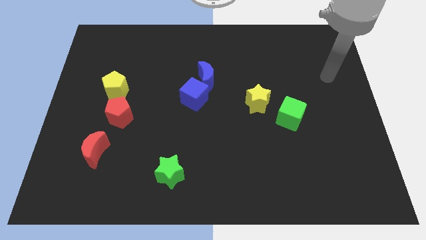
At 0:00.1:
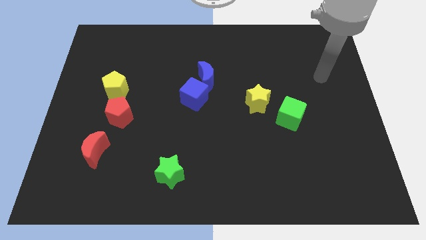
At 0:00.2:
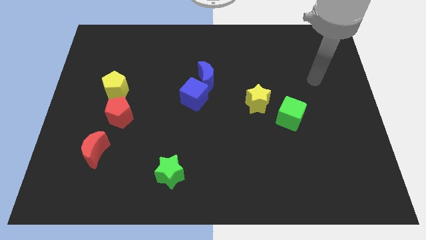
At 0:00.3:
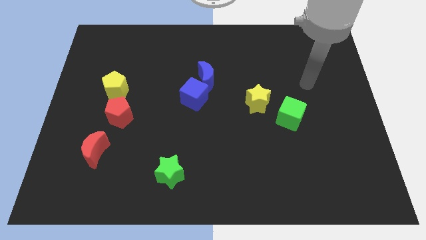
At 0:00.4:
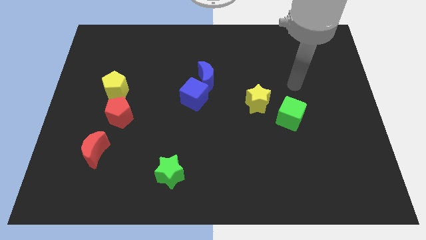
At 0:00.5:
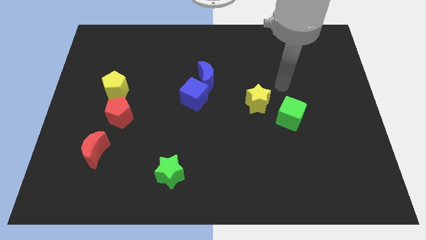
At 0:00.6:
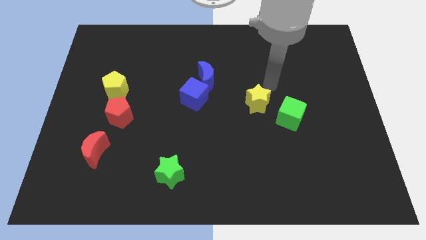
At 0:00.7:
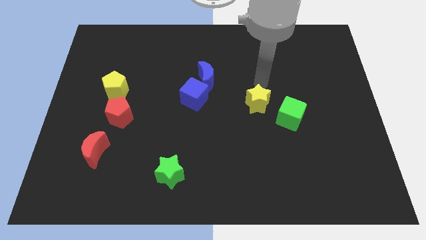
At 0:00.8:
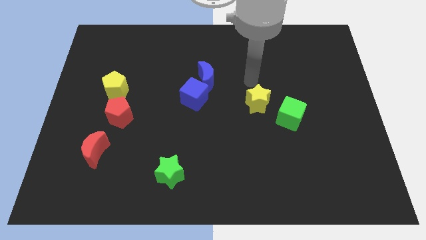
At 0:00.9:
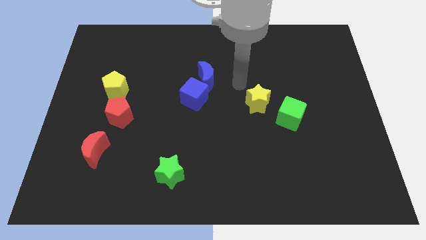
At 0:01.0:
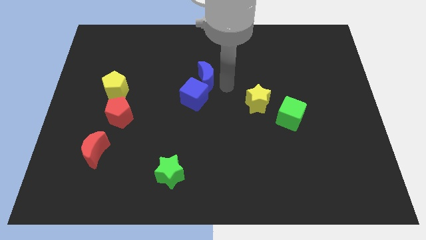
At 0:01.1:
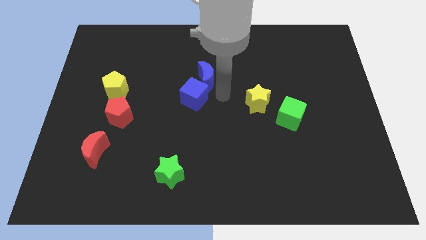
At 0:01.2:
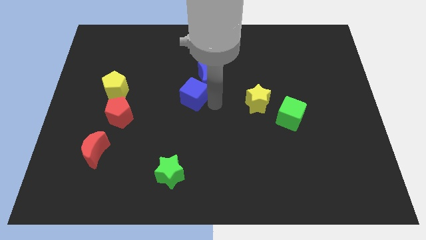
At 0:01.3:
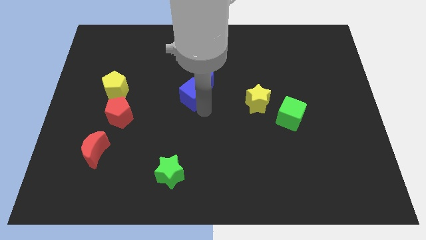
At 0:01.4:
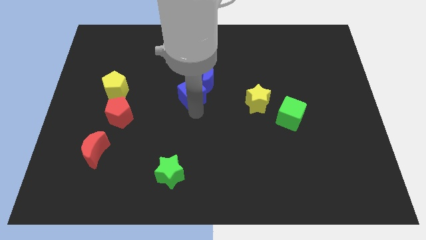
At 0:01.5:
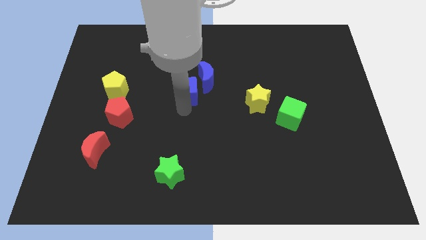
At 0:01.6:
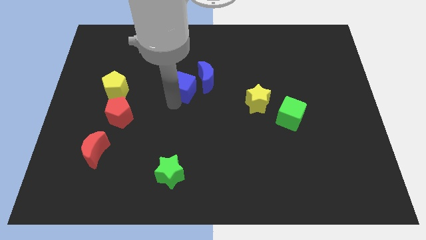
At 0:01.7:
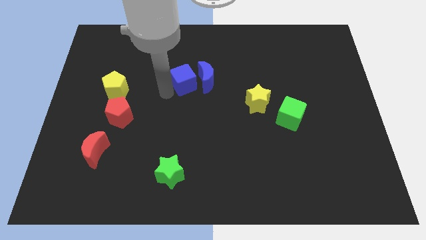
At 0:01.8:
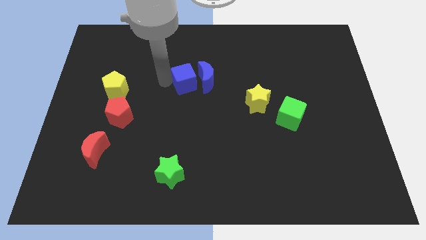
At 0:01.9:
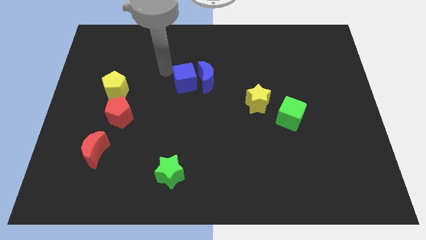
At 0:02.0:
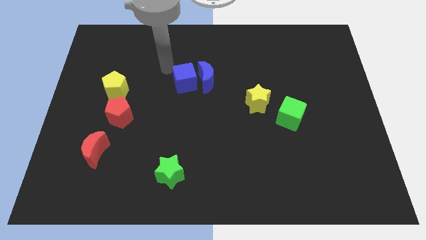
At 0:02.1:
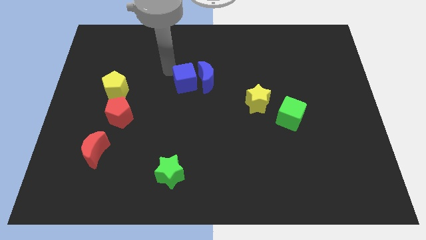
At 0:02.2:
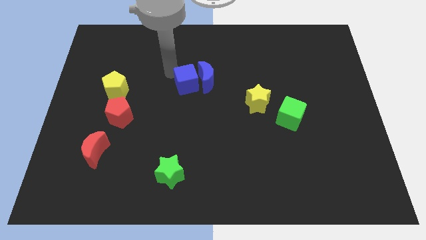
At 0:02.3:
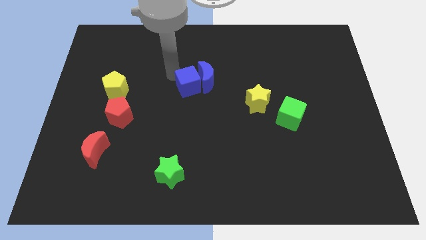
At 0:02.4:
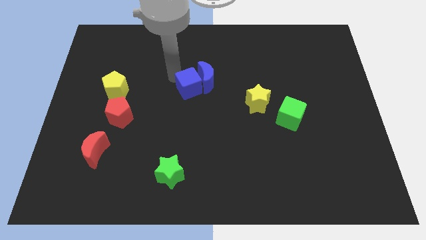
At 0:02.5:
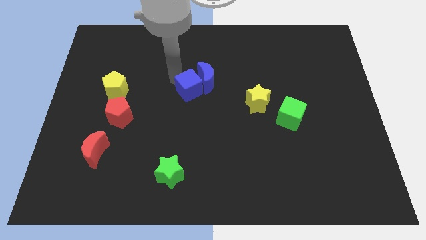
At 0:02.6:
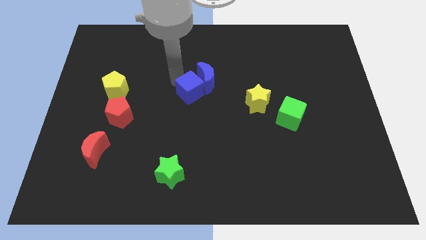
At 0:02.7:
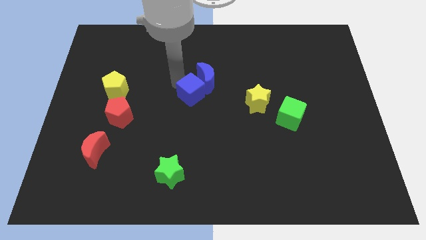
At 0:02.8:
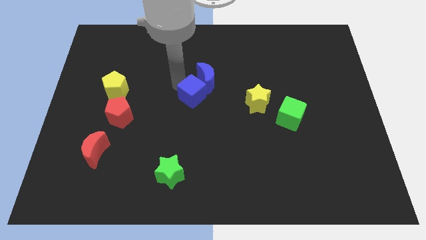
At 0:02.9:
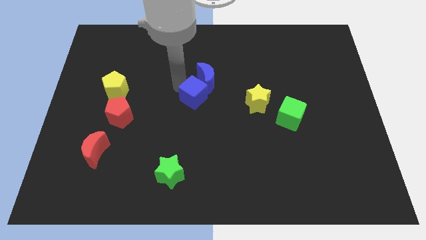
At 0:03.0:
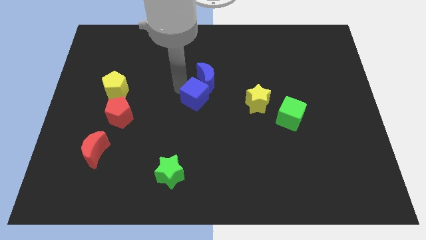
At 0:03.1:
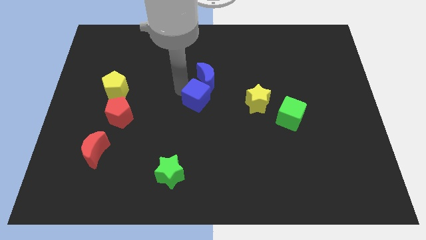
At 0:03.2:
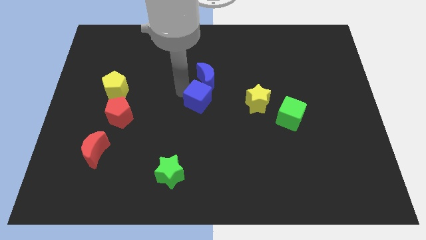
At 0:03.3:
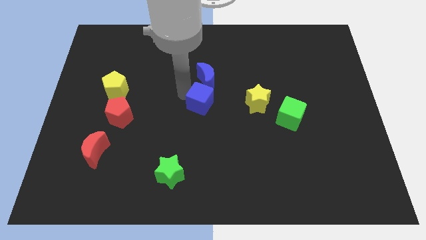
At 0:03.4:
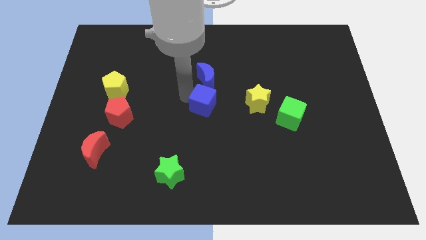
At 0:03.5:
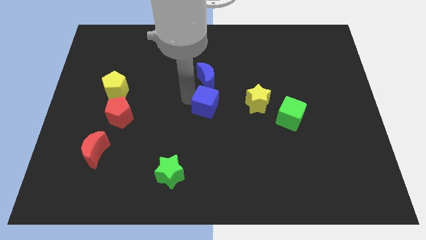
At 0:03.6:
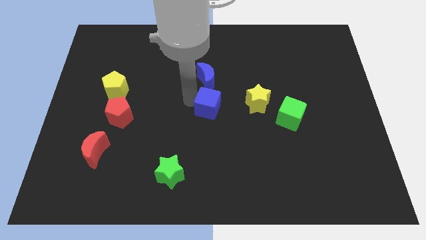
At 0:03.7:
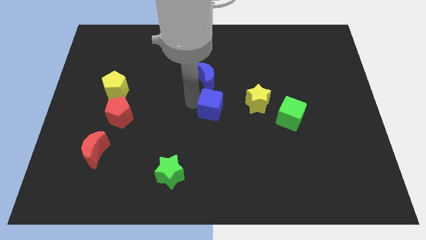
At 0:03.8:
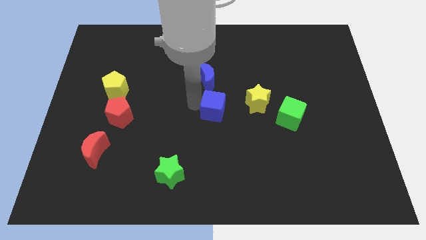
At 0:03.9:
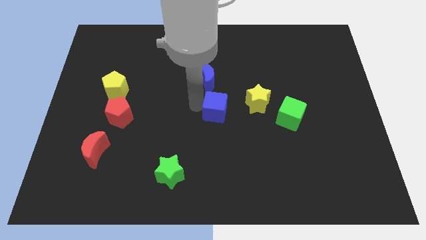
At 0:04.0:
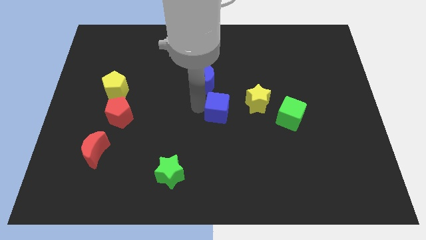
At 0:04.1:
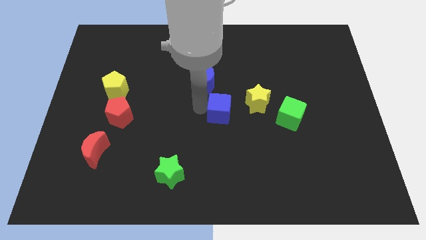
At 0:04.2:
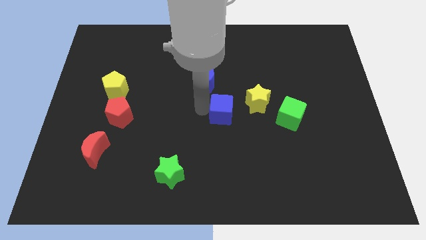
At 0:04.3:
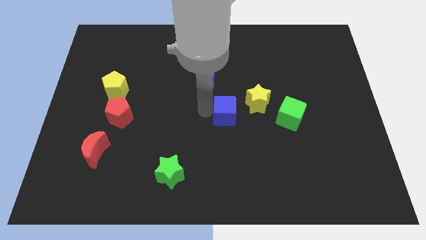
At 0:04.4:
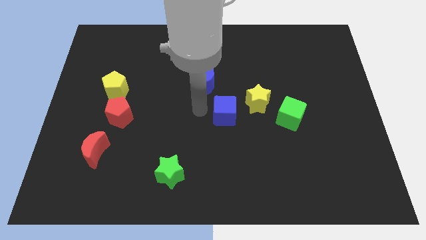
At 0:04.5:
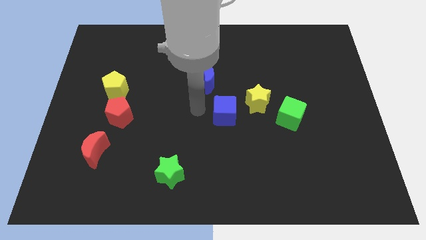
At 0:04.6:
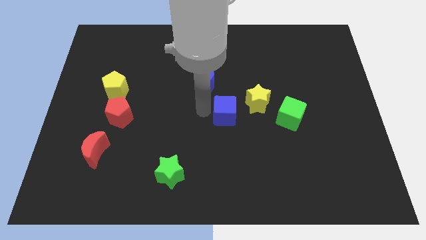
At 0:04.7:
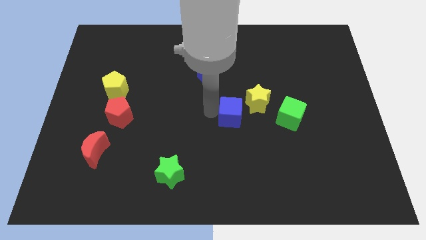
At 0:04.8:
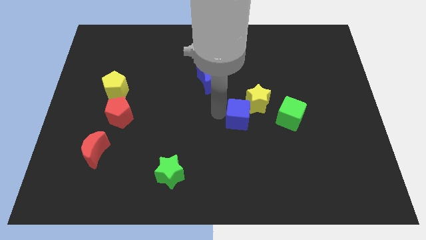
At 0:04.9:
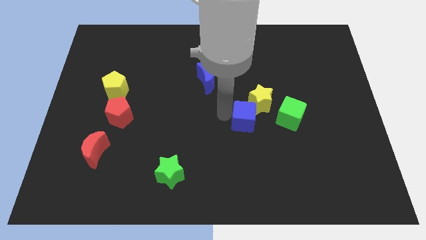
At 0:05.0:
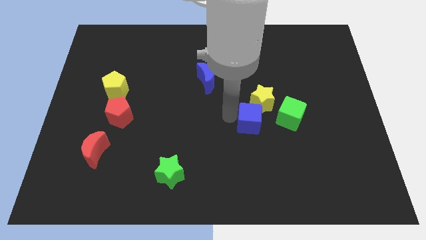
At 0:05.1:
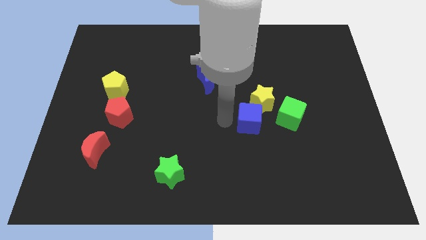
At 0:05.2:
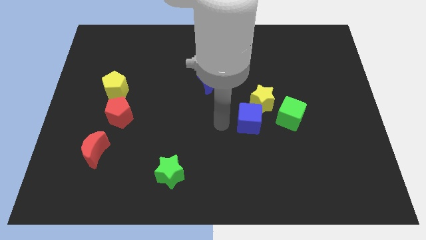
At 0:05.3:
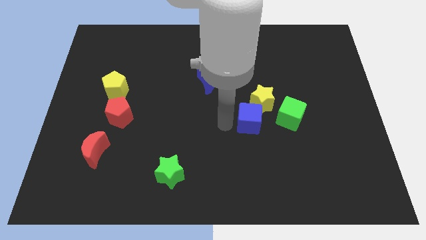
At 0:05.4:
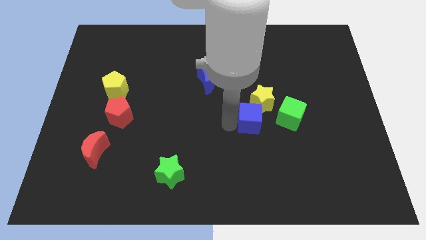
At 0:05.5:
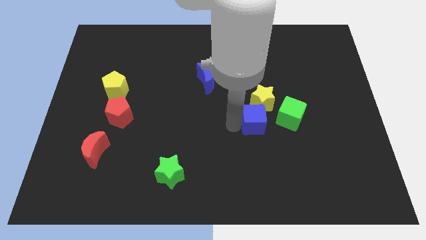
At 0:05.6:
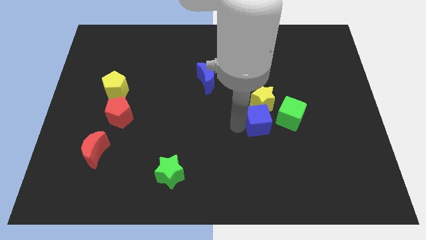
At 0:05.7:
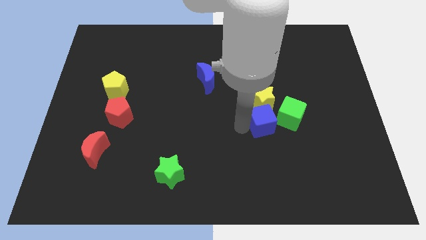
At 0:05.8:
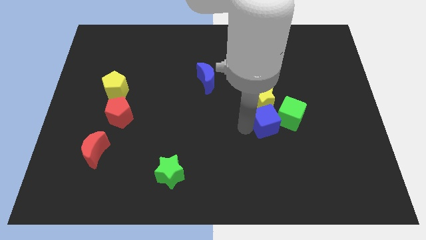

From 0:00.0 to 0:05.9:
move the blue cube close to the green cube

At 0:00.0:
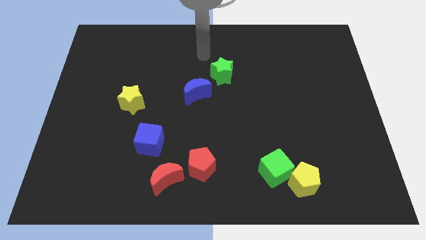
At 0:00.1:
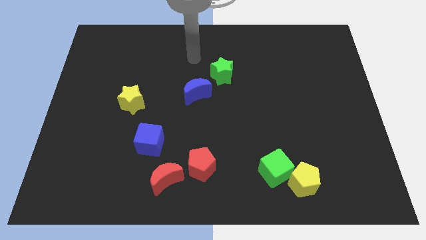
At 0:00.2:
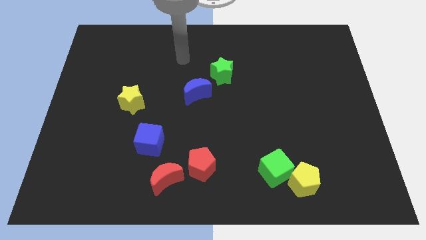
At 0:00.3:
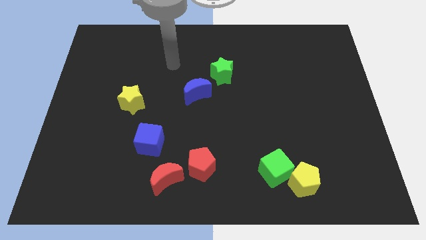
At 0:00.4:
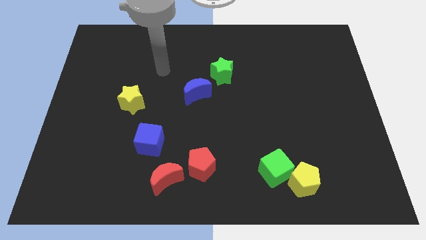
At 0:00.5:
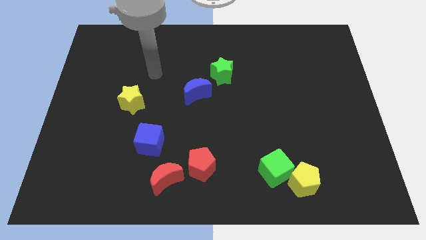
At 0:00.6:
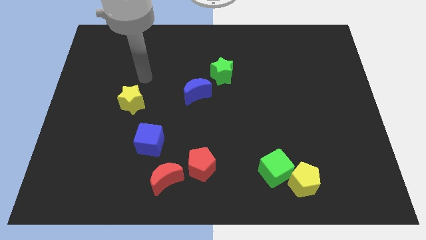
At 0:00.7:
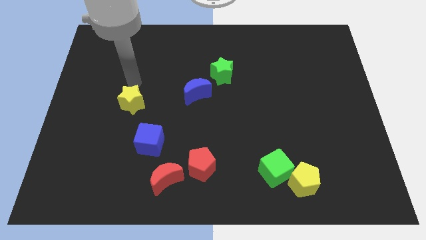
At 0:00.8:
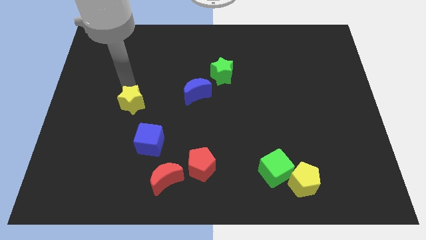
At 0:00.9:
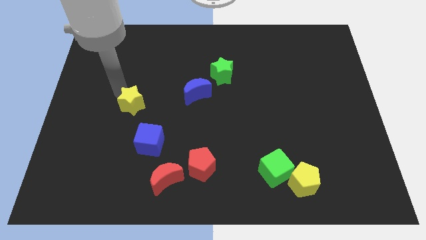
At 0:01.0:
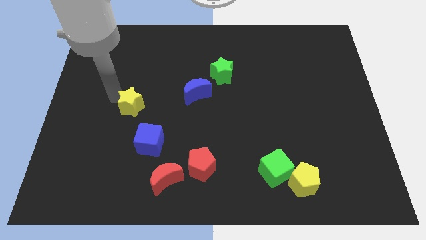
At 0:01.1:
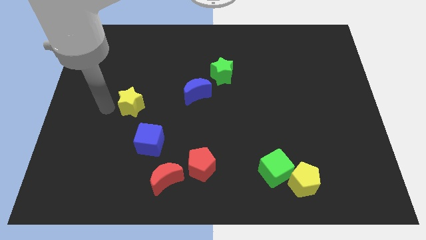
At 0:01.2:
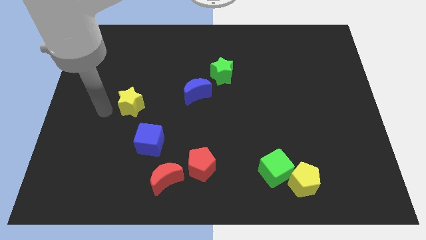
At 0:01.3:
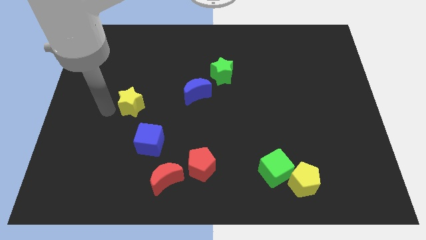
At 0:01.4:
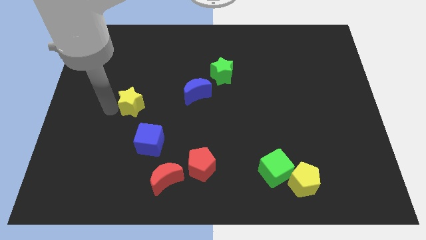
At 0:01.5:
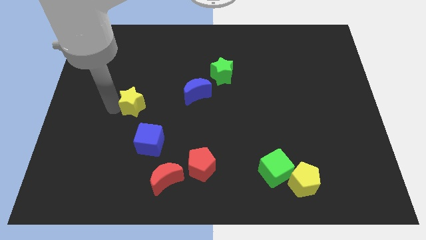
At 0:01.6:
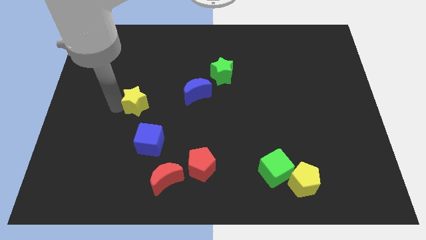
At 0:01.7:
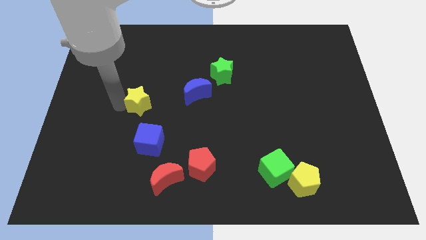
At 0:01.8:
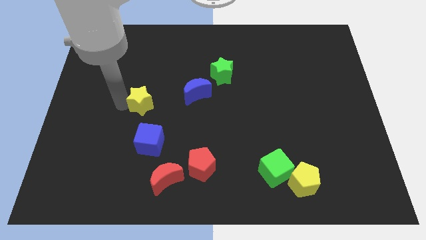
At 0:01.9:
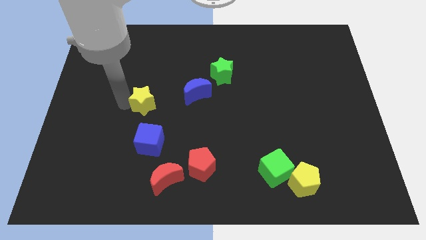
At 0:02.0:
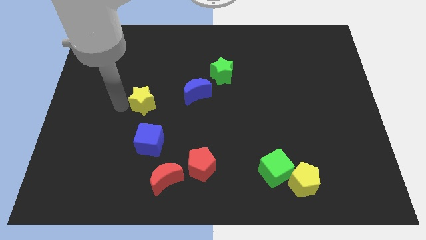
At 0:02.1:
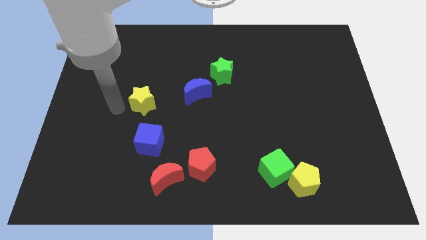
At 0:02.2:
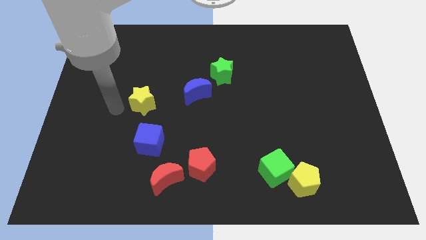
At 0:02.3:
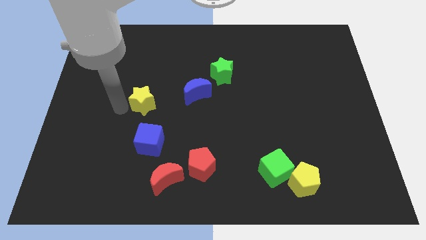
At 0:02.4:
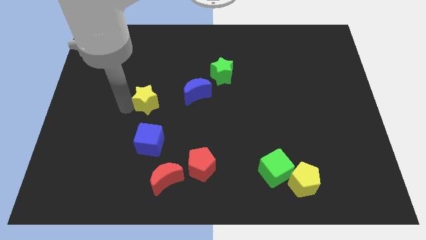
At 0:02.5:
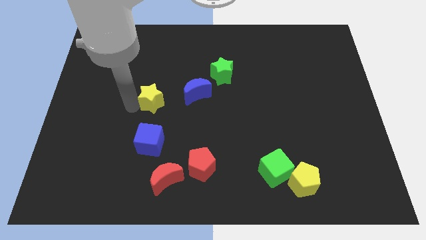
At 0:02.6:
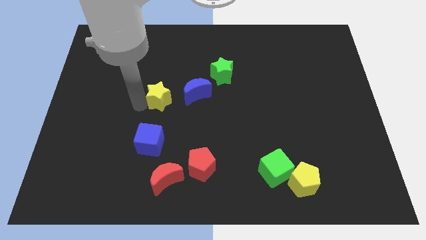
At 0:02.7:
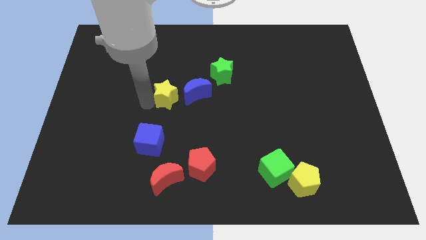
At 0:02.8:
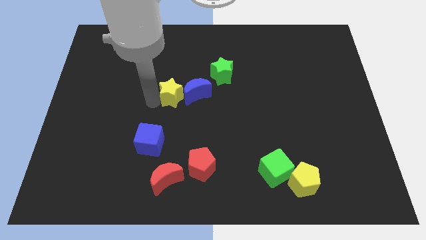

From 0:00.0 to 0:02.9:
slide the yellow star close to the blue moon
